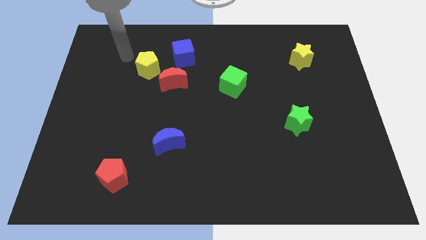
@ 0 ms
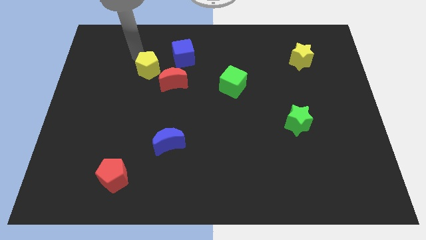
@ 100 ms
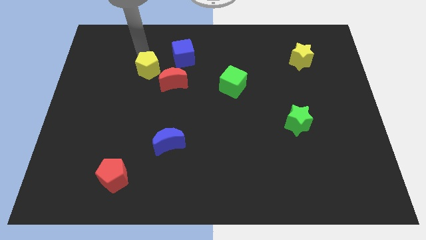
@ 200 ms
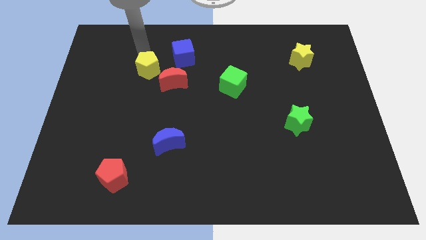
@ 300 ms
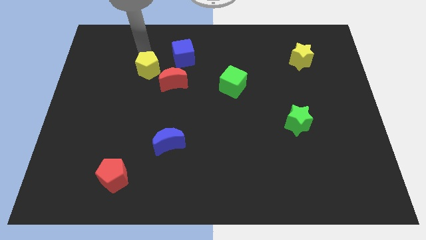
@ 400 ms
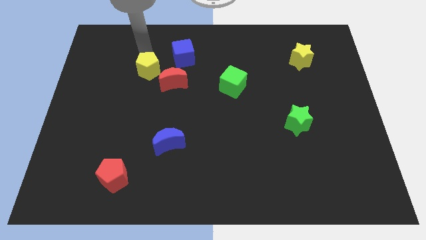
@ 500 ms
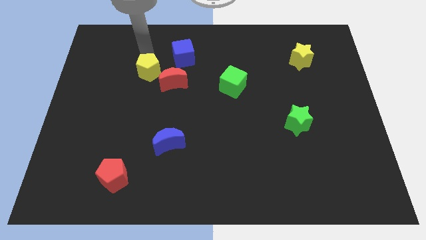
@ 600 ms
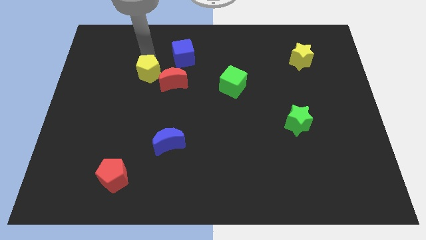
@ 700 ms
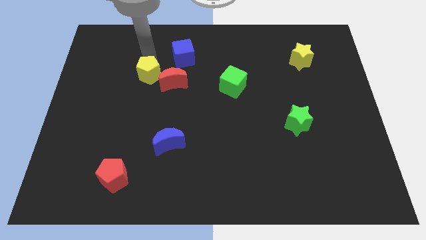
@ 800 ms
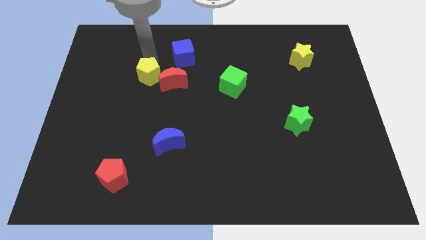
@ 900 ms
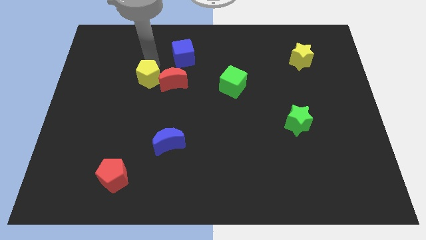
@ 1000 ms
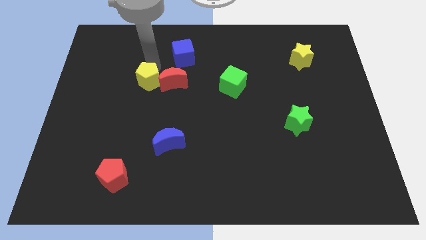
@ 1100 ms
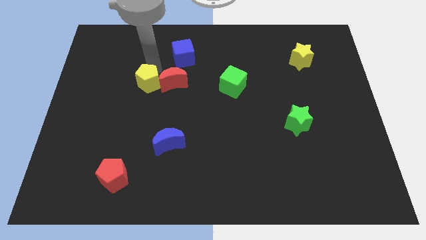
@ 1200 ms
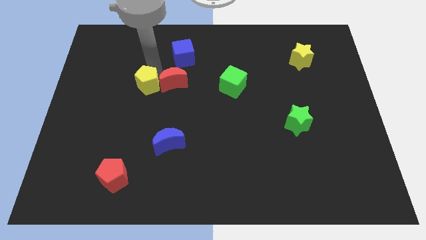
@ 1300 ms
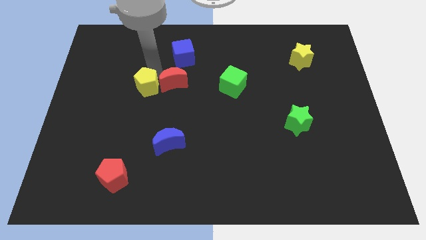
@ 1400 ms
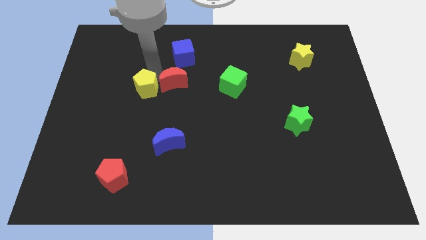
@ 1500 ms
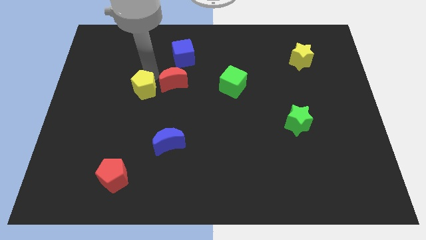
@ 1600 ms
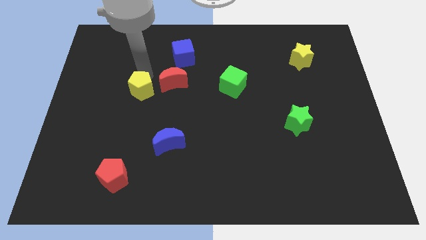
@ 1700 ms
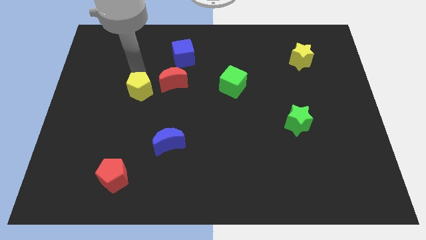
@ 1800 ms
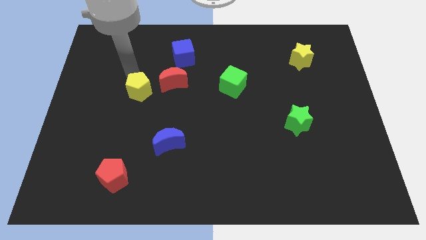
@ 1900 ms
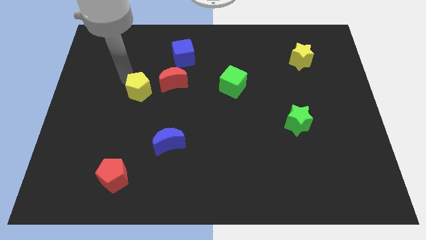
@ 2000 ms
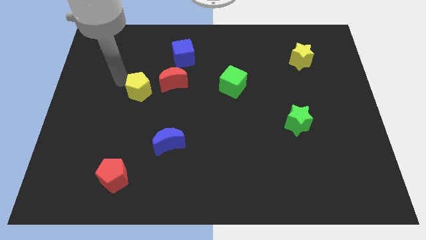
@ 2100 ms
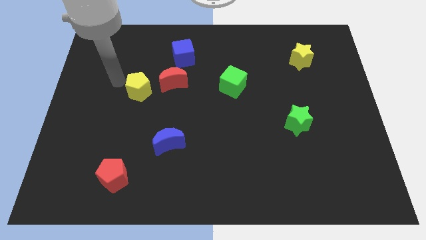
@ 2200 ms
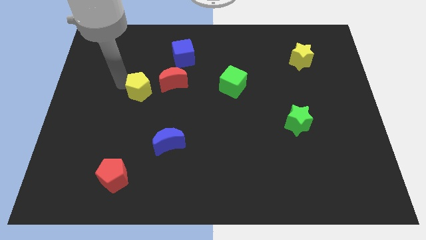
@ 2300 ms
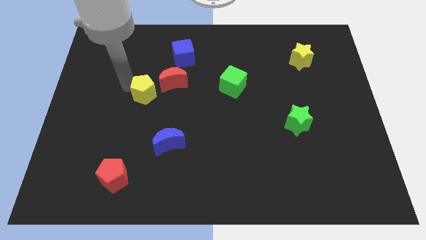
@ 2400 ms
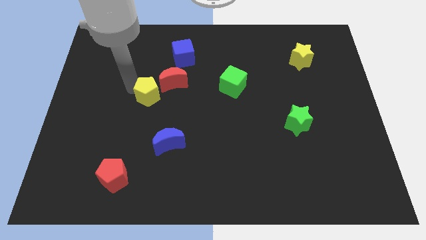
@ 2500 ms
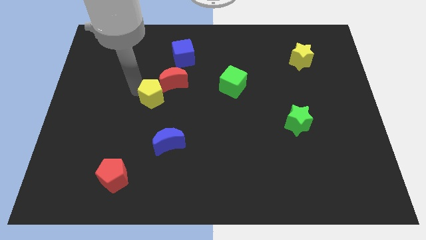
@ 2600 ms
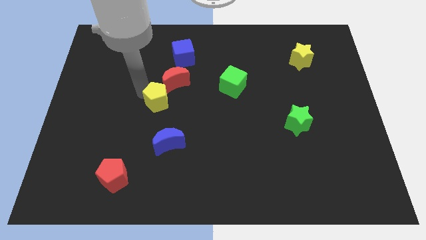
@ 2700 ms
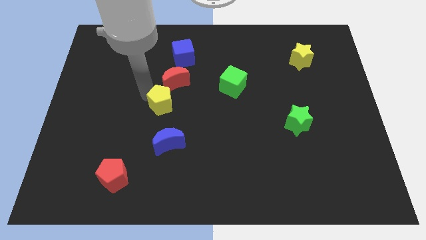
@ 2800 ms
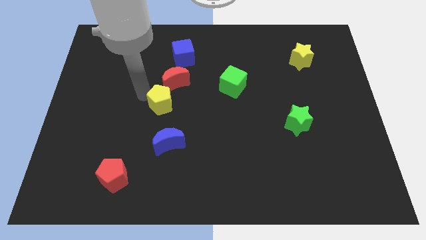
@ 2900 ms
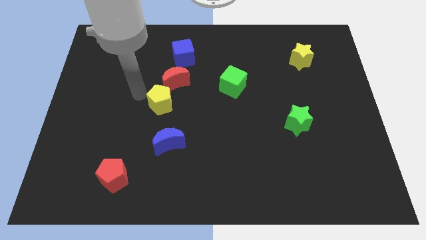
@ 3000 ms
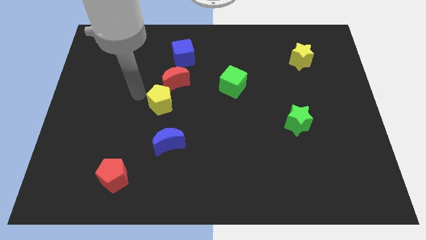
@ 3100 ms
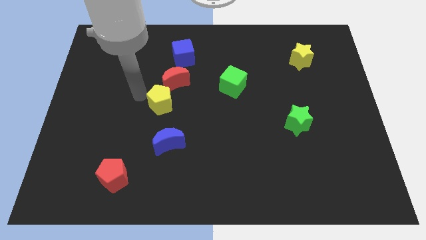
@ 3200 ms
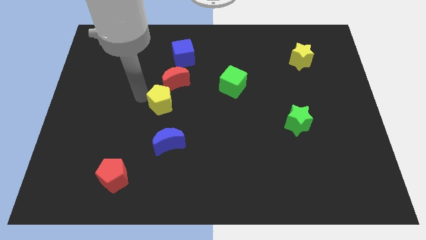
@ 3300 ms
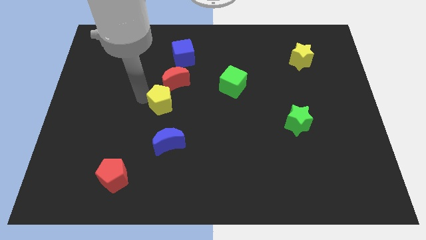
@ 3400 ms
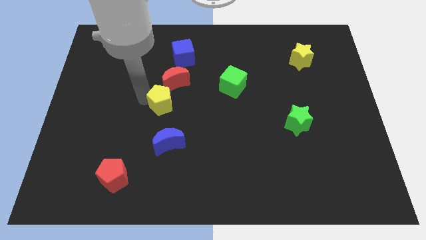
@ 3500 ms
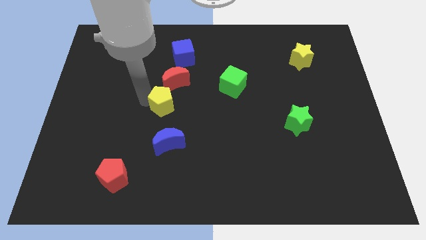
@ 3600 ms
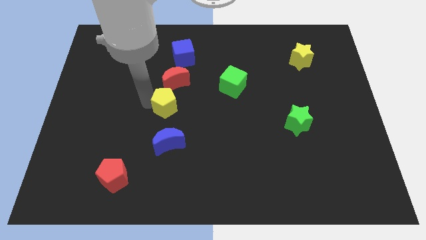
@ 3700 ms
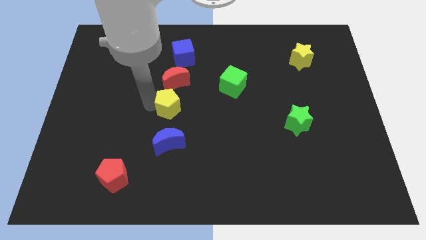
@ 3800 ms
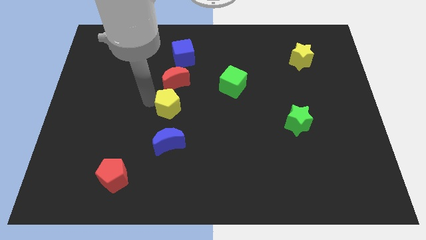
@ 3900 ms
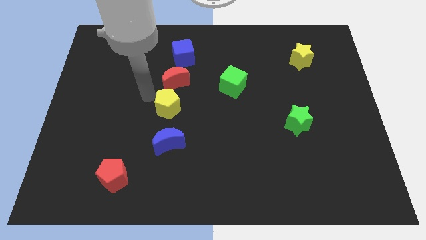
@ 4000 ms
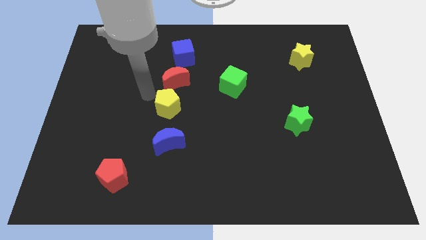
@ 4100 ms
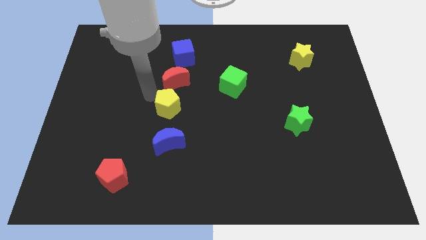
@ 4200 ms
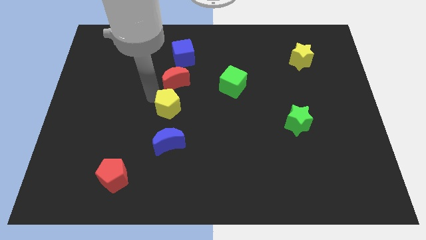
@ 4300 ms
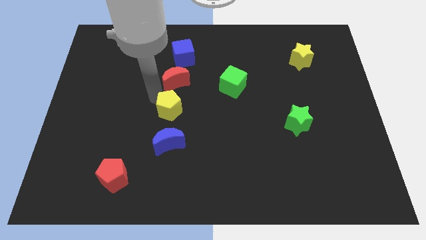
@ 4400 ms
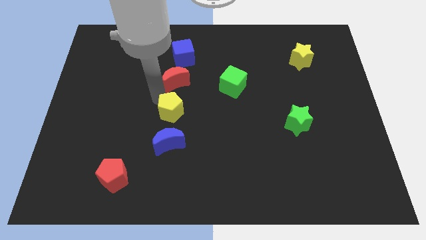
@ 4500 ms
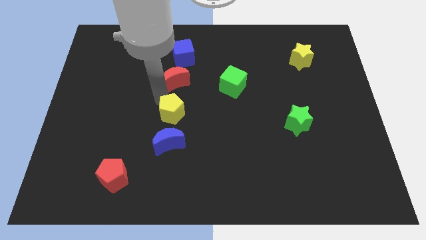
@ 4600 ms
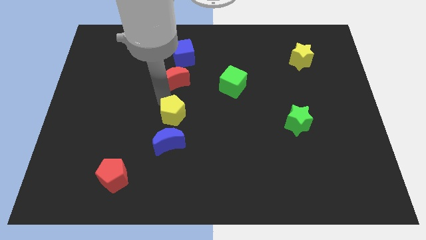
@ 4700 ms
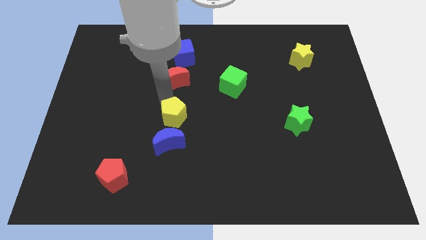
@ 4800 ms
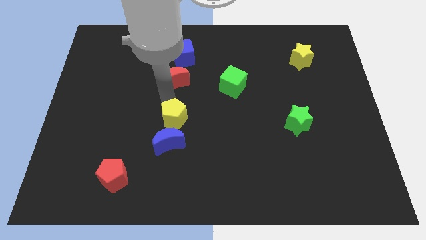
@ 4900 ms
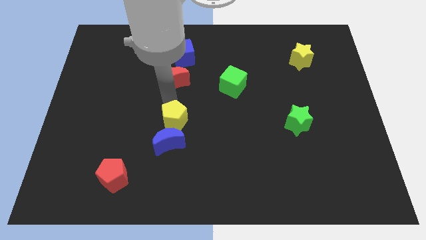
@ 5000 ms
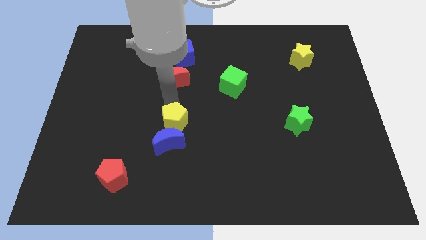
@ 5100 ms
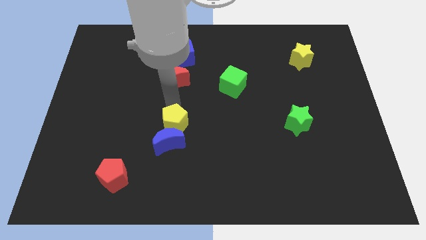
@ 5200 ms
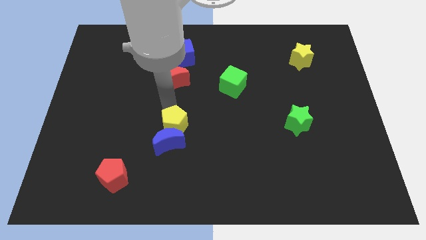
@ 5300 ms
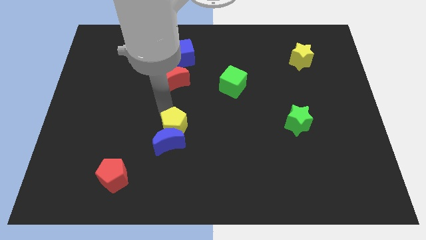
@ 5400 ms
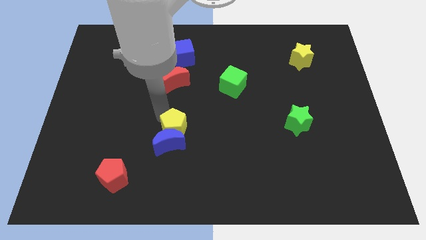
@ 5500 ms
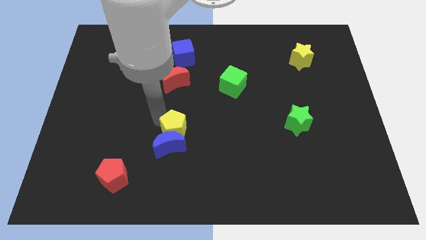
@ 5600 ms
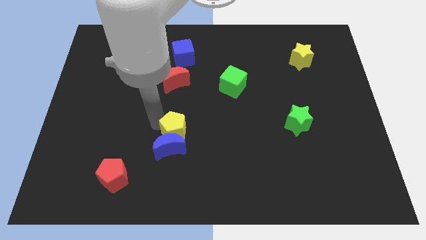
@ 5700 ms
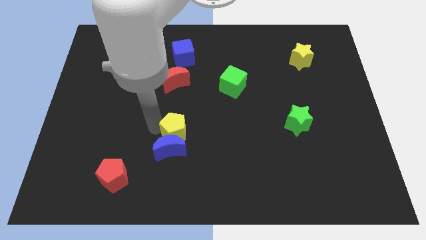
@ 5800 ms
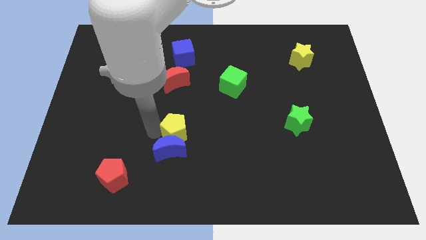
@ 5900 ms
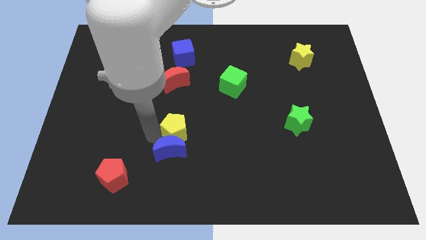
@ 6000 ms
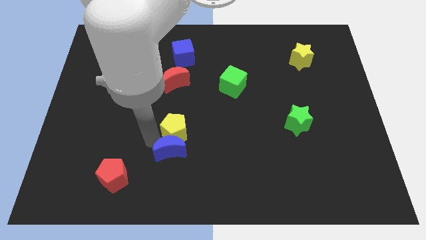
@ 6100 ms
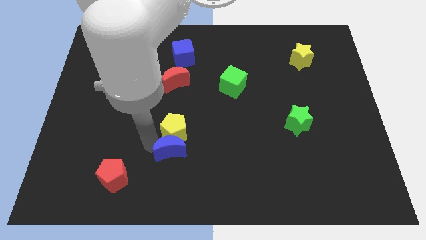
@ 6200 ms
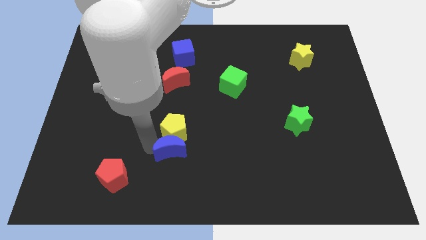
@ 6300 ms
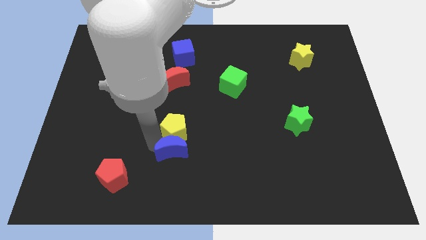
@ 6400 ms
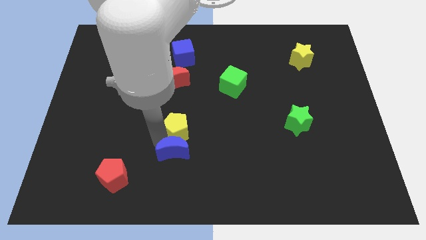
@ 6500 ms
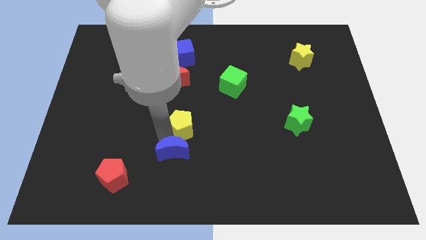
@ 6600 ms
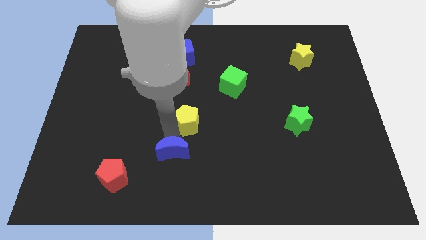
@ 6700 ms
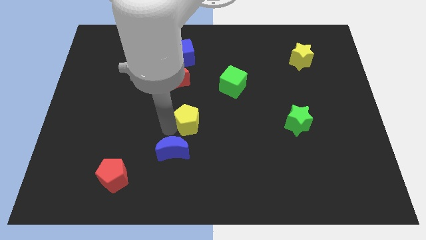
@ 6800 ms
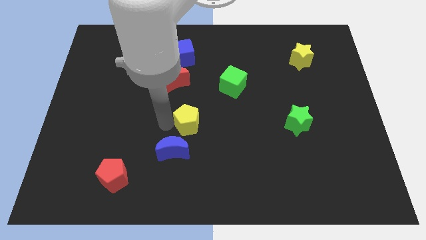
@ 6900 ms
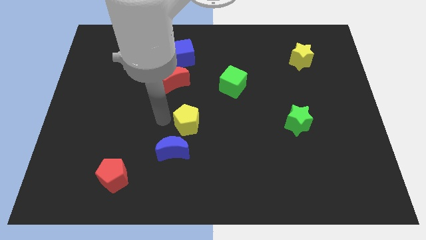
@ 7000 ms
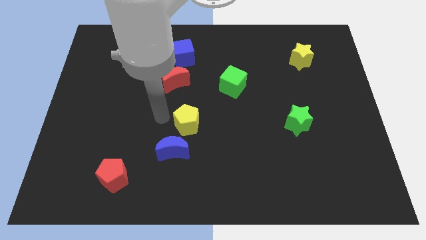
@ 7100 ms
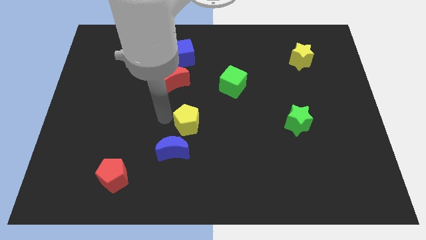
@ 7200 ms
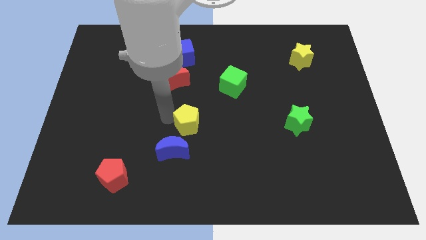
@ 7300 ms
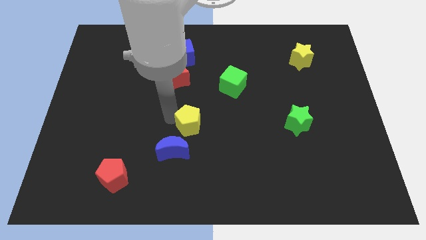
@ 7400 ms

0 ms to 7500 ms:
push the yellow pentagon downwards and to the right

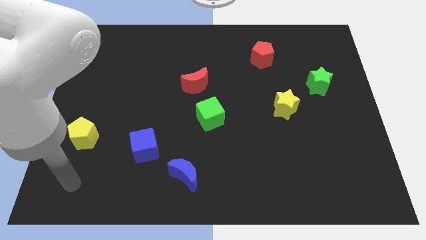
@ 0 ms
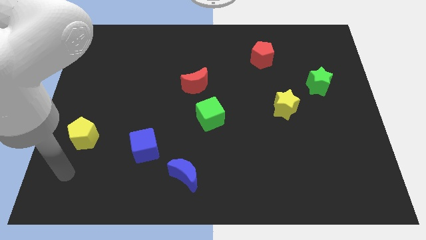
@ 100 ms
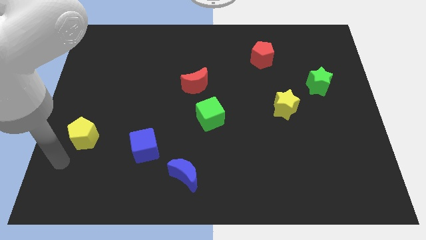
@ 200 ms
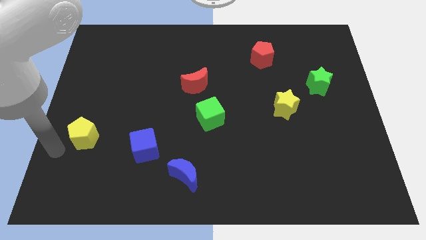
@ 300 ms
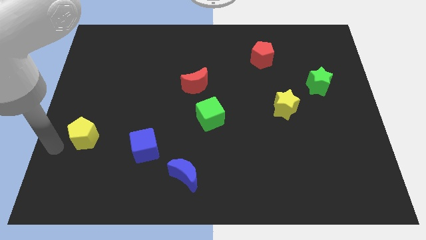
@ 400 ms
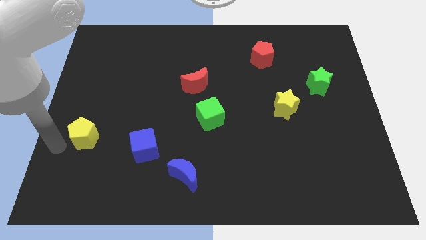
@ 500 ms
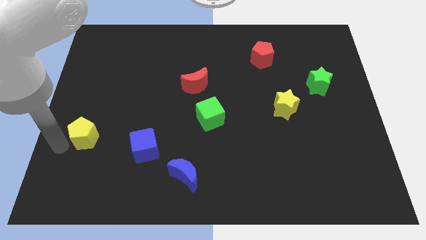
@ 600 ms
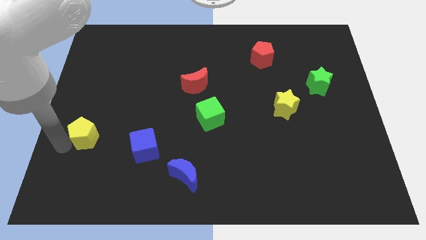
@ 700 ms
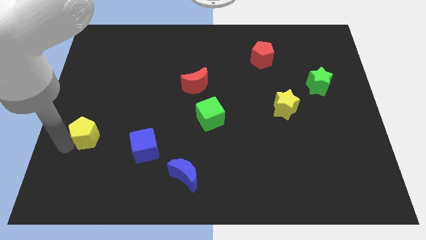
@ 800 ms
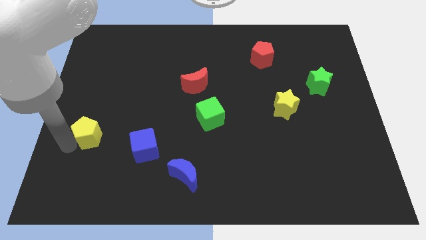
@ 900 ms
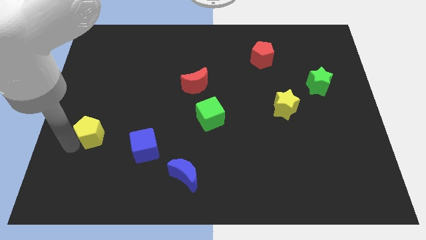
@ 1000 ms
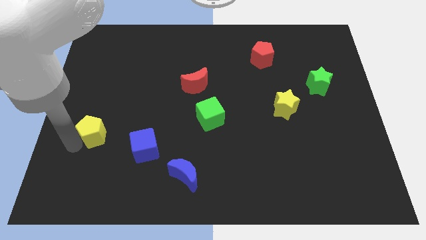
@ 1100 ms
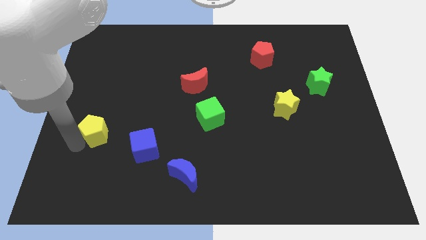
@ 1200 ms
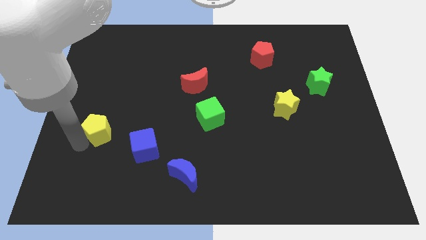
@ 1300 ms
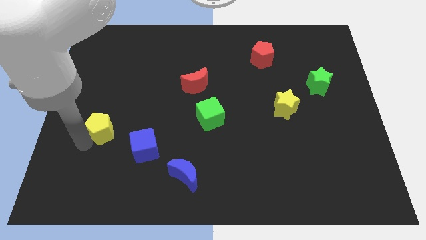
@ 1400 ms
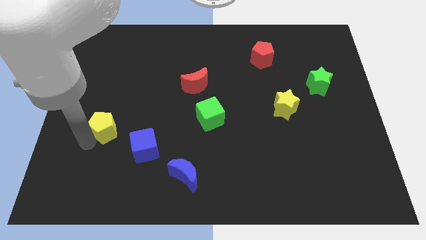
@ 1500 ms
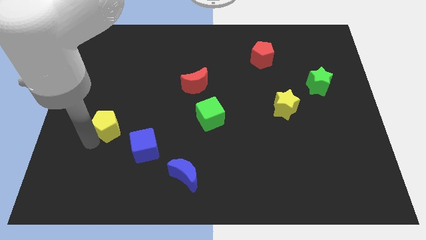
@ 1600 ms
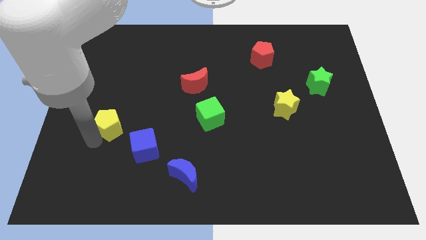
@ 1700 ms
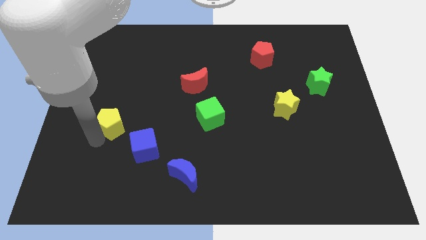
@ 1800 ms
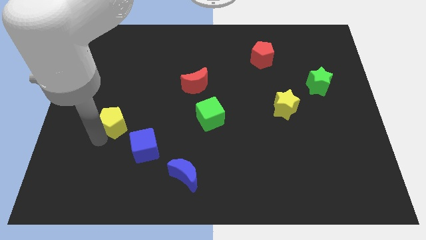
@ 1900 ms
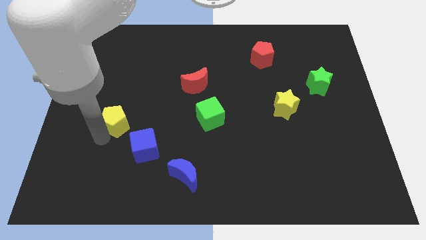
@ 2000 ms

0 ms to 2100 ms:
move the yellow pentagon upwards and right diagonally slightly
